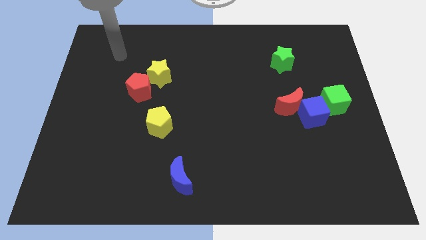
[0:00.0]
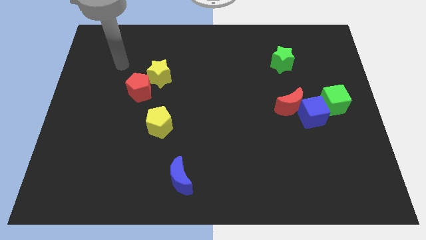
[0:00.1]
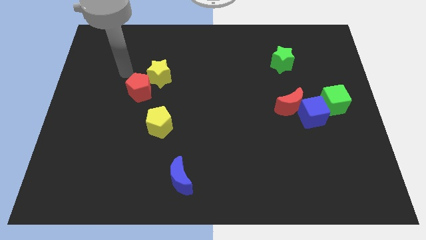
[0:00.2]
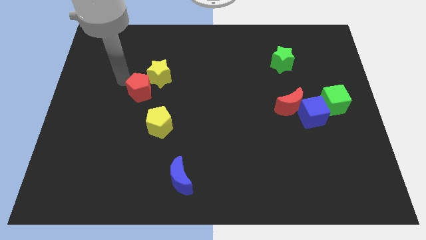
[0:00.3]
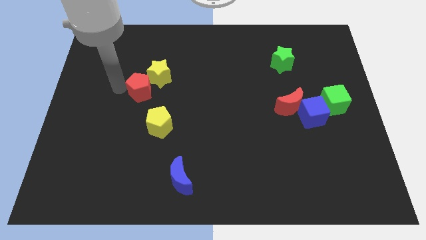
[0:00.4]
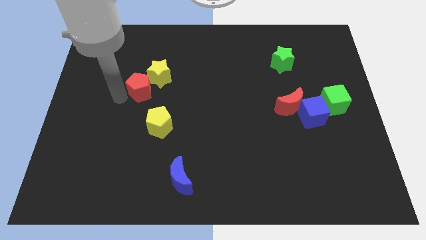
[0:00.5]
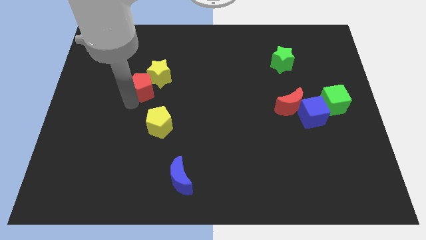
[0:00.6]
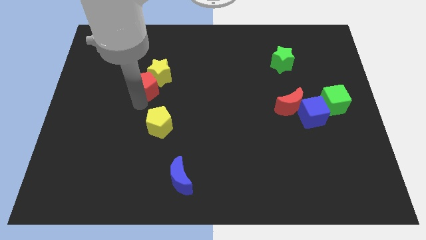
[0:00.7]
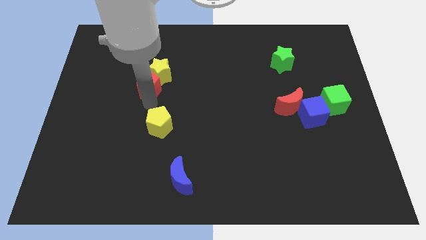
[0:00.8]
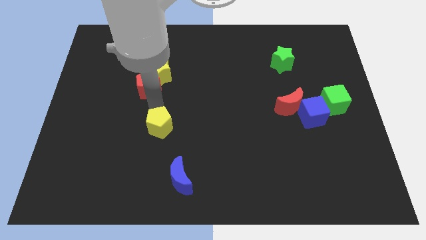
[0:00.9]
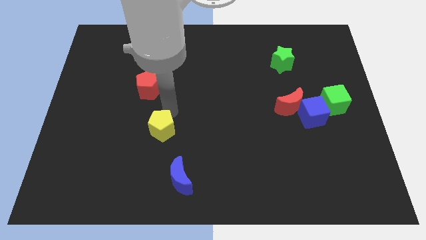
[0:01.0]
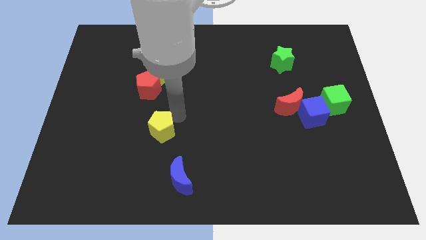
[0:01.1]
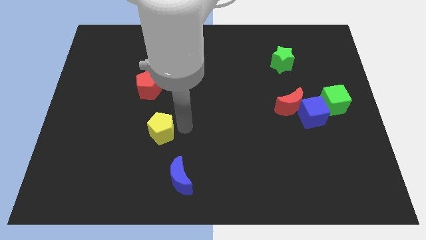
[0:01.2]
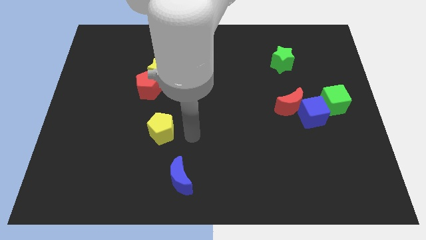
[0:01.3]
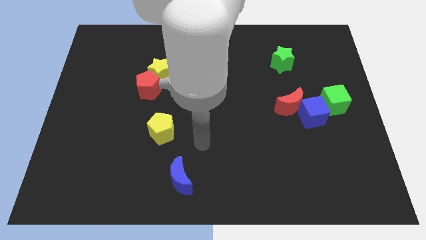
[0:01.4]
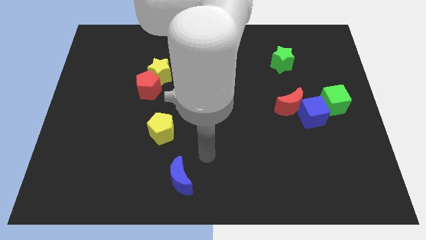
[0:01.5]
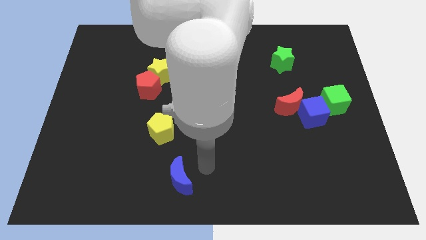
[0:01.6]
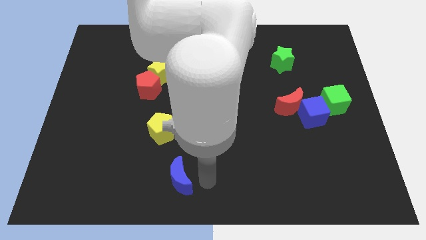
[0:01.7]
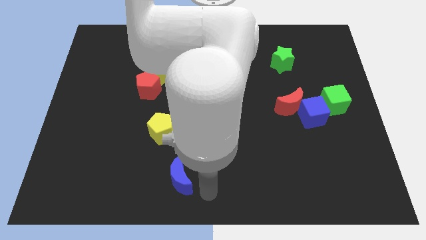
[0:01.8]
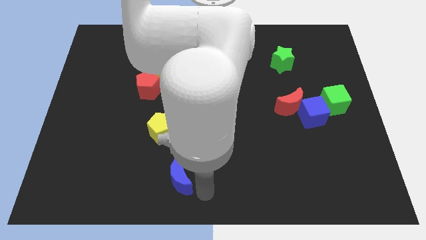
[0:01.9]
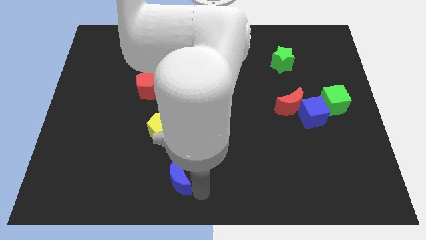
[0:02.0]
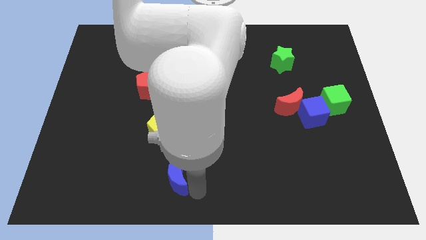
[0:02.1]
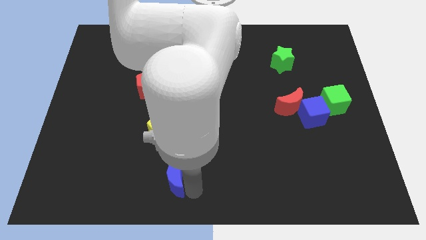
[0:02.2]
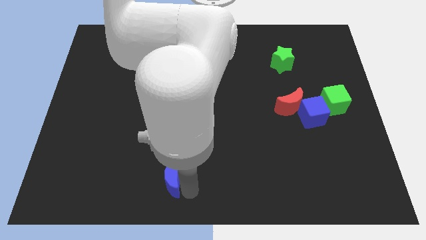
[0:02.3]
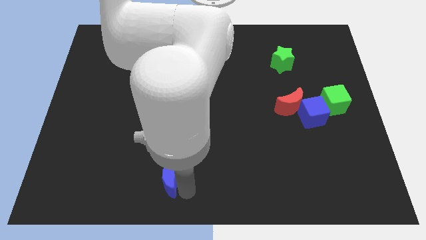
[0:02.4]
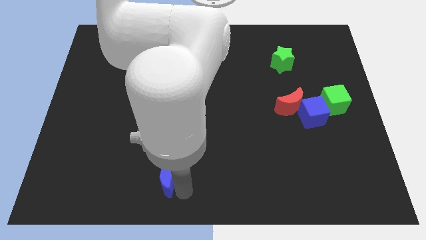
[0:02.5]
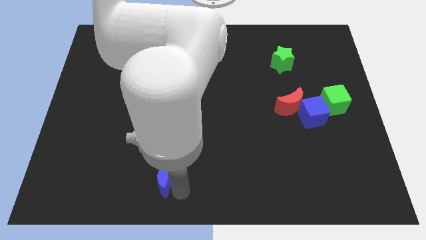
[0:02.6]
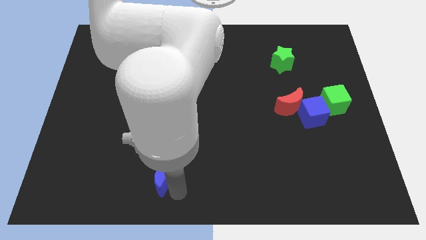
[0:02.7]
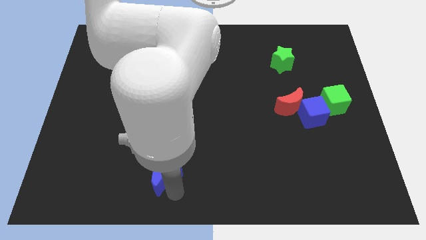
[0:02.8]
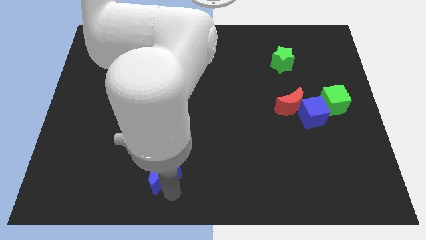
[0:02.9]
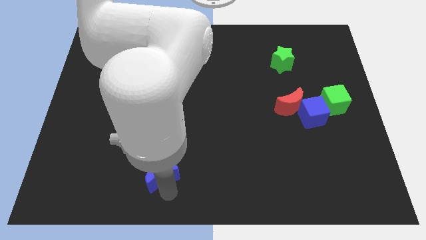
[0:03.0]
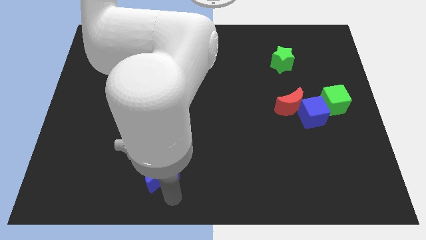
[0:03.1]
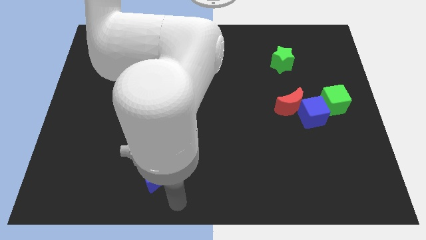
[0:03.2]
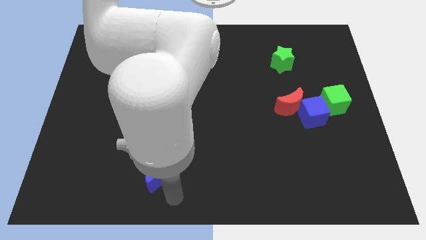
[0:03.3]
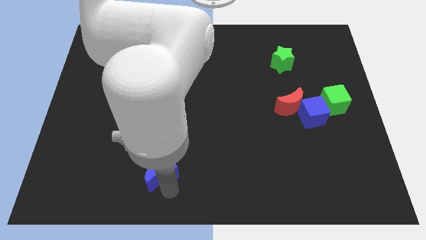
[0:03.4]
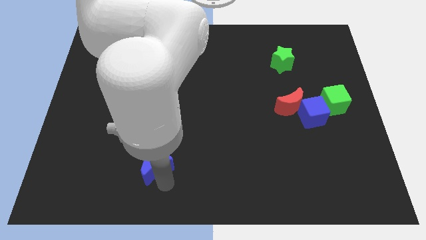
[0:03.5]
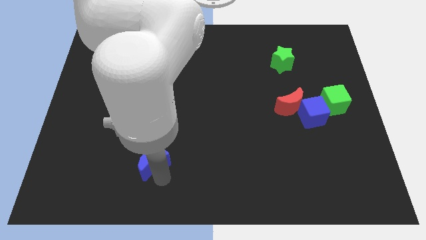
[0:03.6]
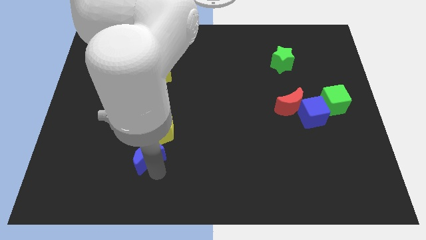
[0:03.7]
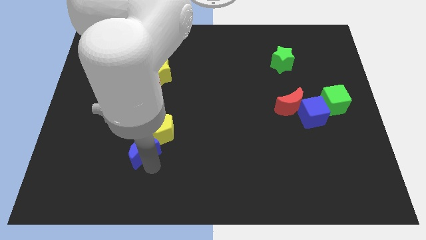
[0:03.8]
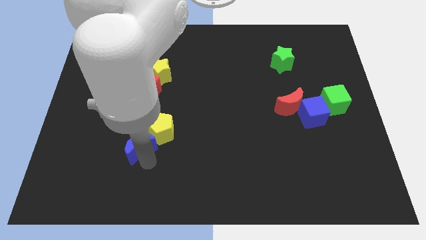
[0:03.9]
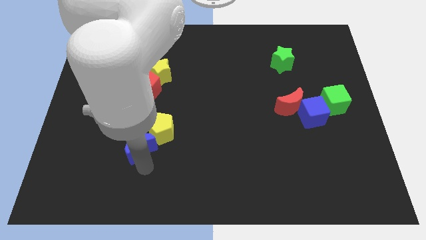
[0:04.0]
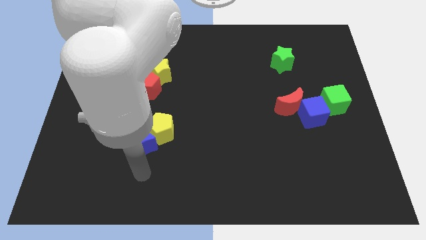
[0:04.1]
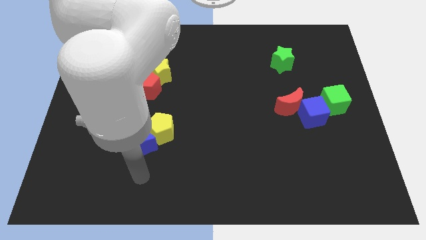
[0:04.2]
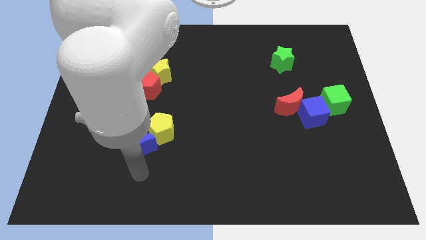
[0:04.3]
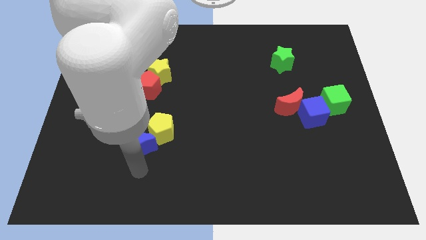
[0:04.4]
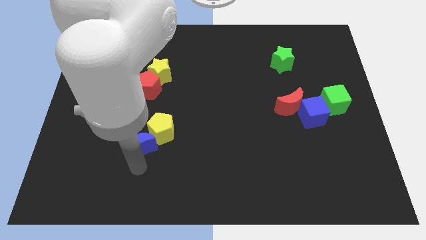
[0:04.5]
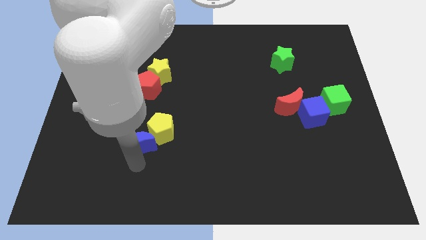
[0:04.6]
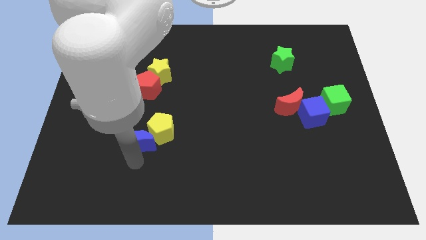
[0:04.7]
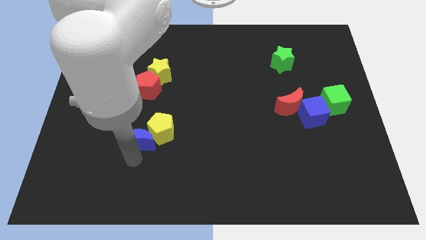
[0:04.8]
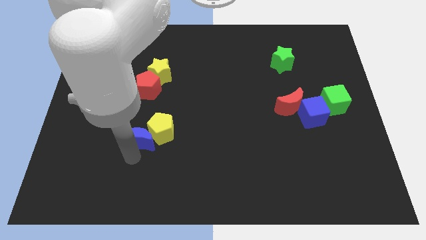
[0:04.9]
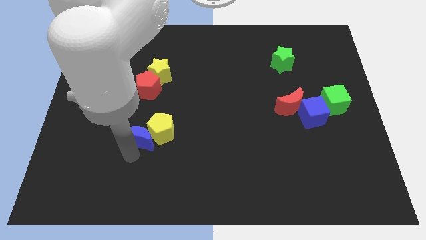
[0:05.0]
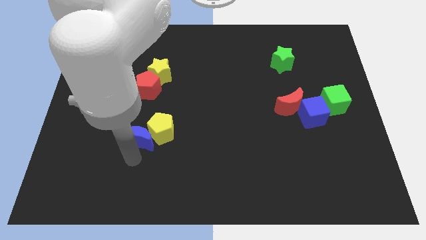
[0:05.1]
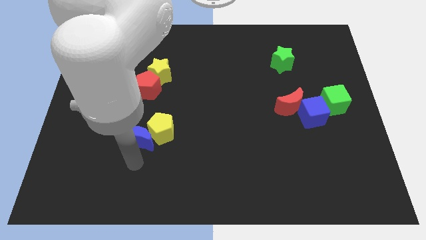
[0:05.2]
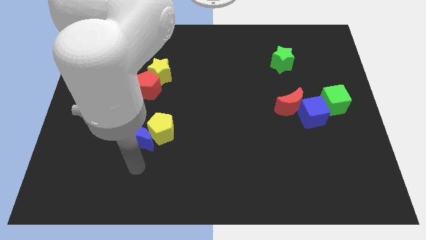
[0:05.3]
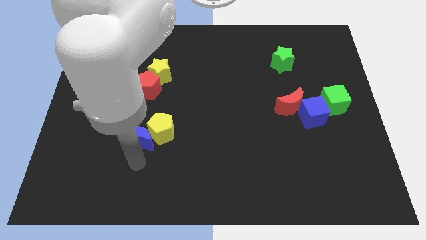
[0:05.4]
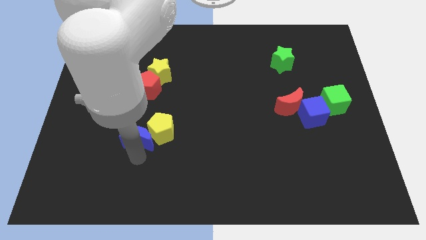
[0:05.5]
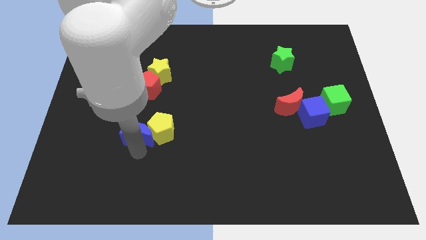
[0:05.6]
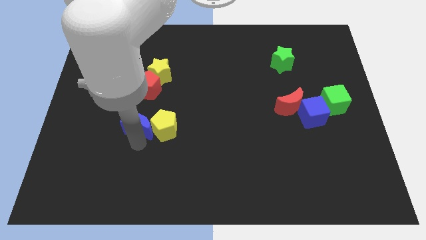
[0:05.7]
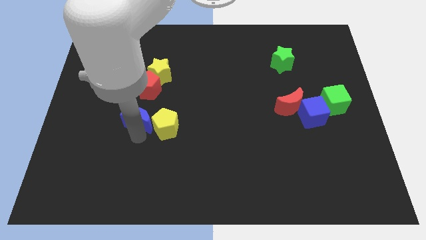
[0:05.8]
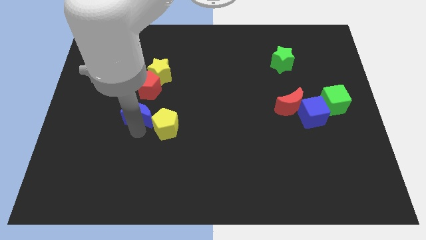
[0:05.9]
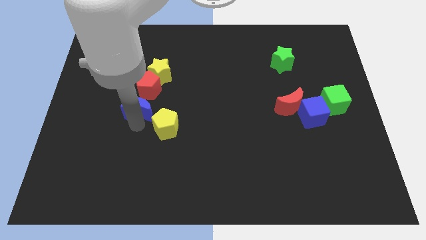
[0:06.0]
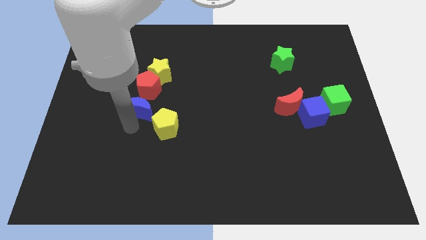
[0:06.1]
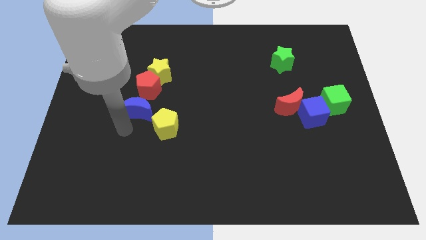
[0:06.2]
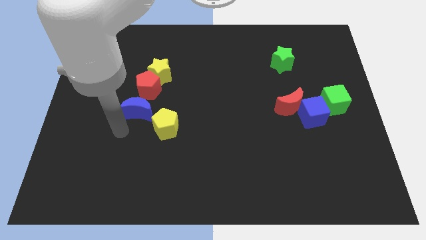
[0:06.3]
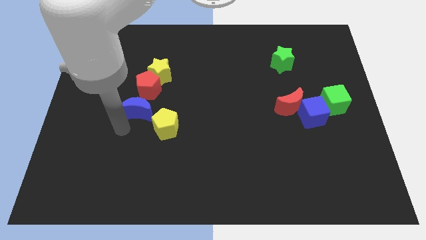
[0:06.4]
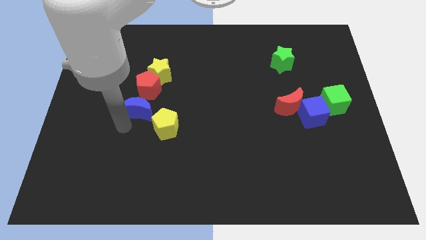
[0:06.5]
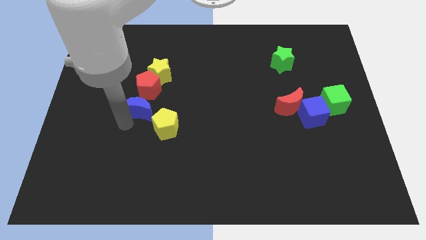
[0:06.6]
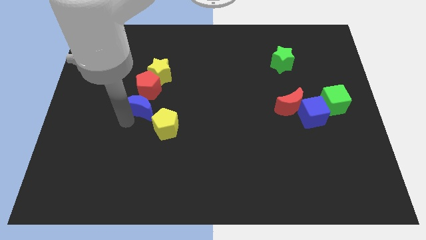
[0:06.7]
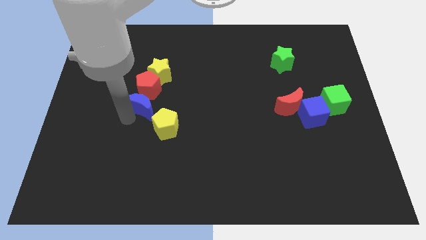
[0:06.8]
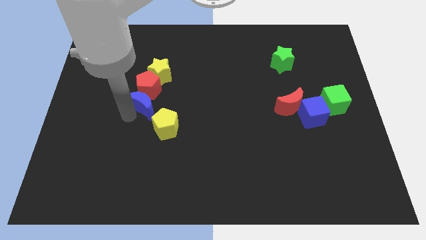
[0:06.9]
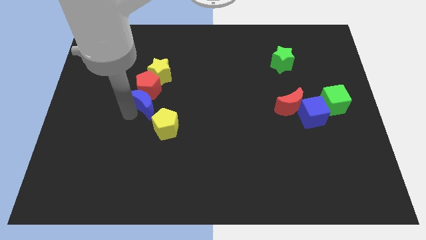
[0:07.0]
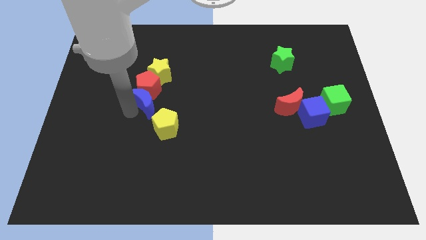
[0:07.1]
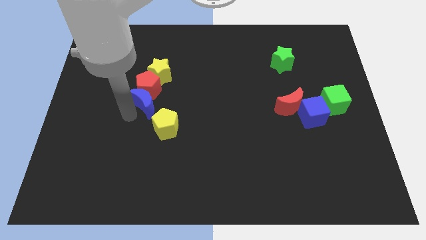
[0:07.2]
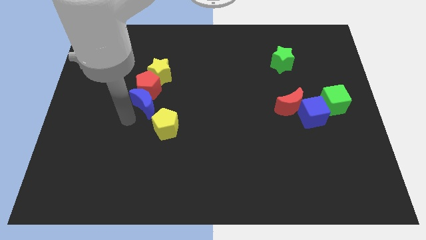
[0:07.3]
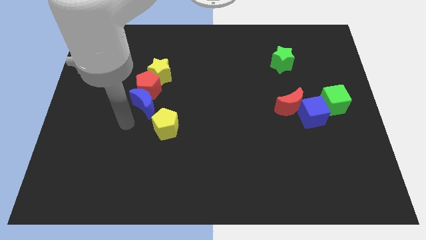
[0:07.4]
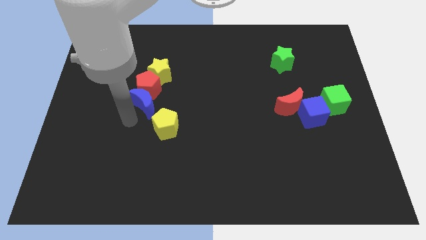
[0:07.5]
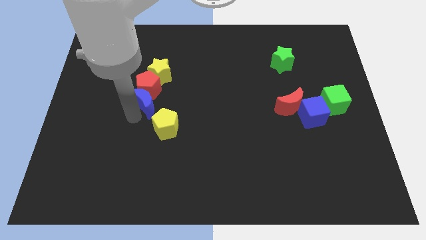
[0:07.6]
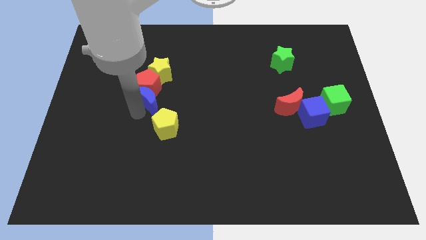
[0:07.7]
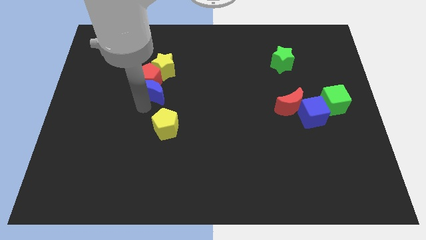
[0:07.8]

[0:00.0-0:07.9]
move the blue moon upwards
